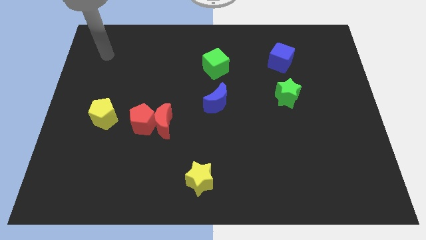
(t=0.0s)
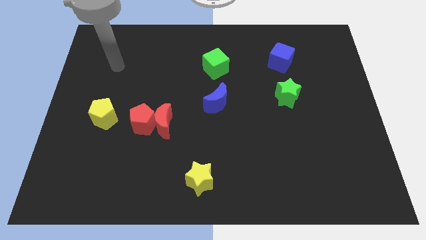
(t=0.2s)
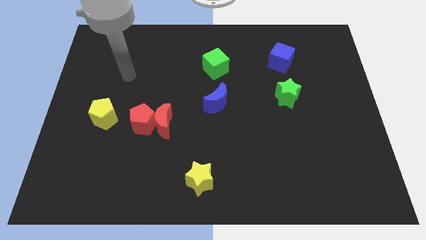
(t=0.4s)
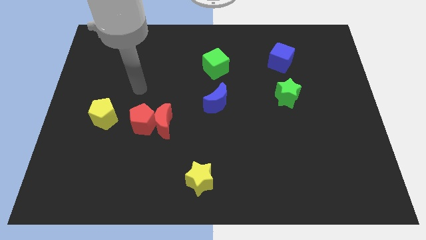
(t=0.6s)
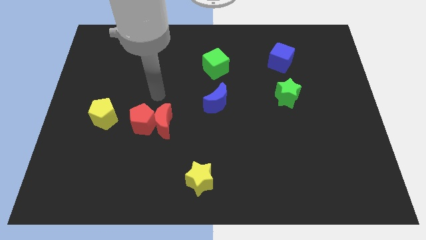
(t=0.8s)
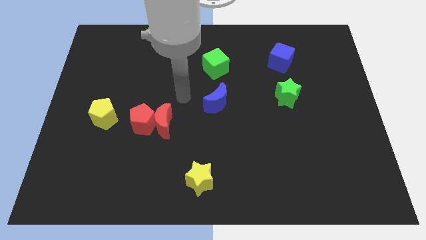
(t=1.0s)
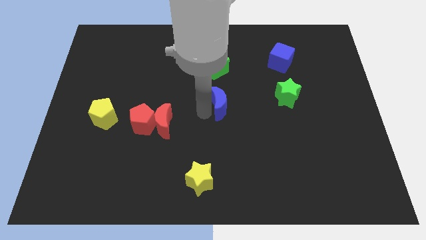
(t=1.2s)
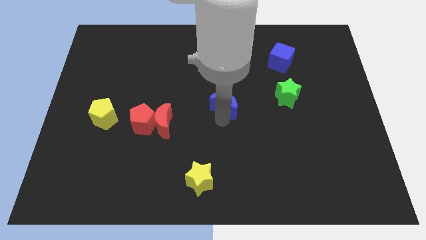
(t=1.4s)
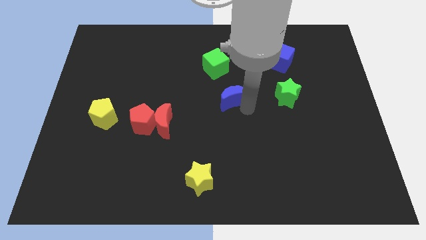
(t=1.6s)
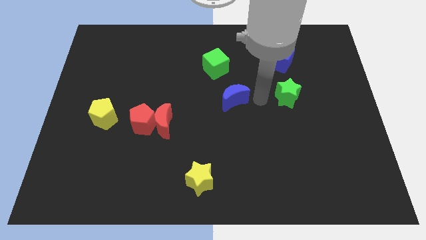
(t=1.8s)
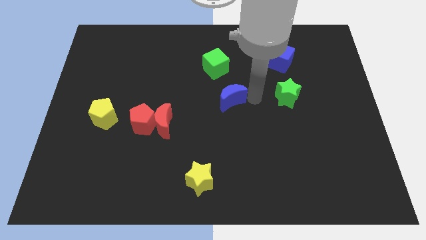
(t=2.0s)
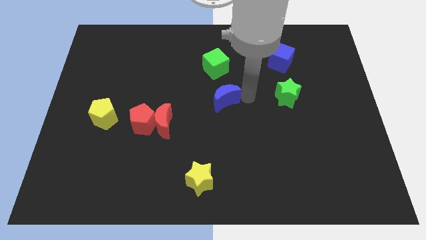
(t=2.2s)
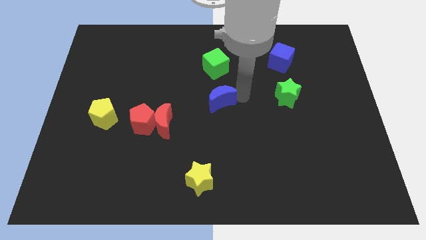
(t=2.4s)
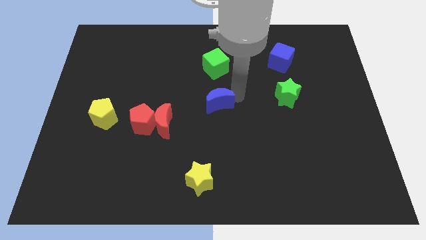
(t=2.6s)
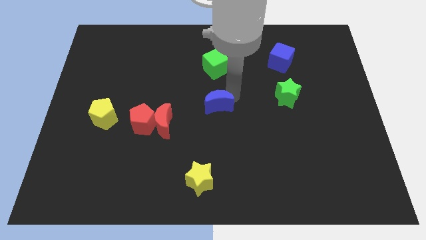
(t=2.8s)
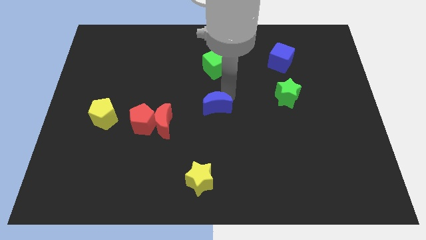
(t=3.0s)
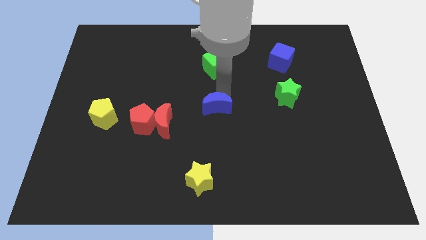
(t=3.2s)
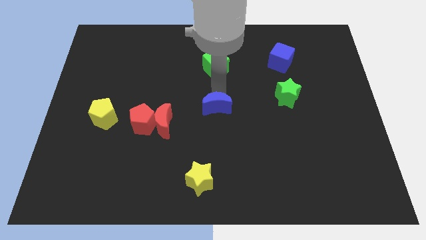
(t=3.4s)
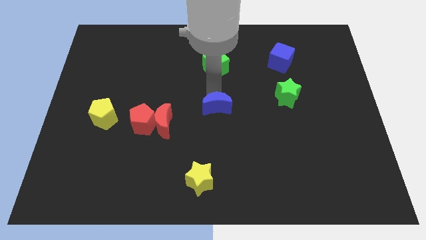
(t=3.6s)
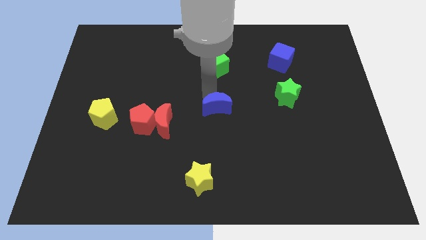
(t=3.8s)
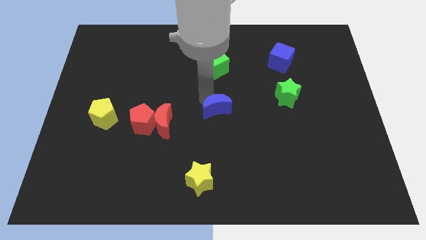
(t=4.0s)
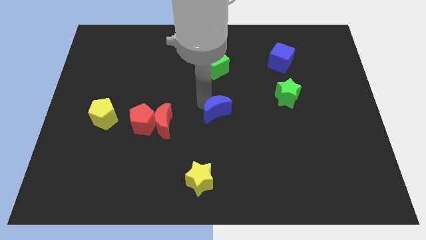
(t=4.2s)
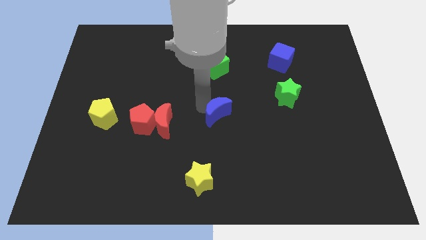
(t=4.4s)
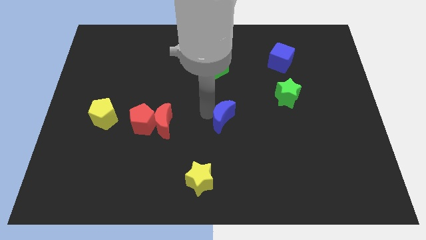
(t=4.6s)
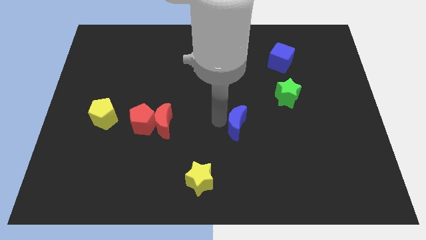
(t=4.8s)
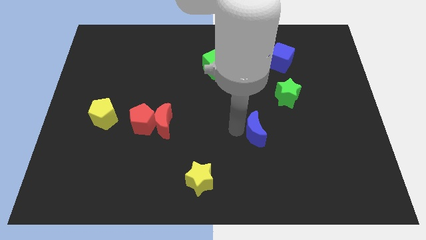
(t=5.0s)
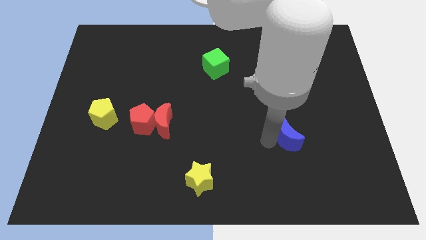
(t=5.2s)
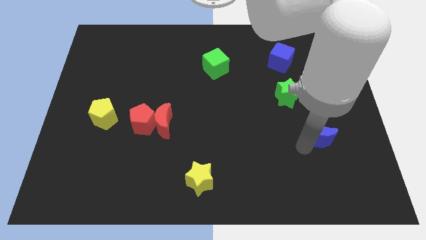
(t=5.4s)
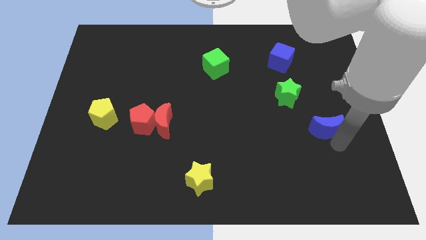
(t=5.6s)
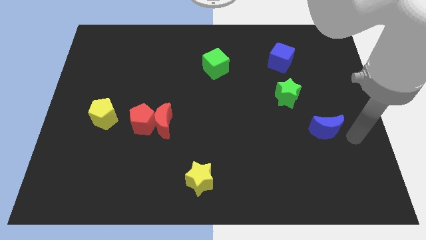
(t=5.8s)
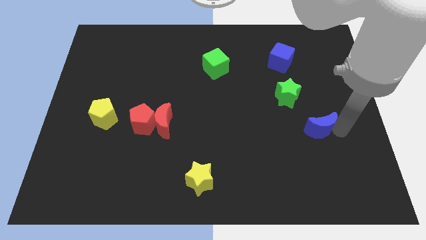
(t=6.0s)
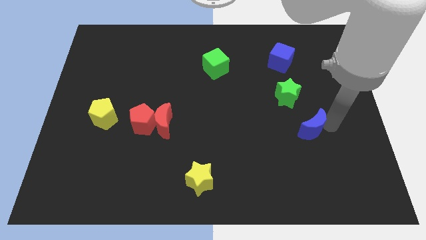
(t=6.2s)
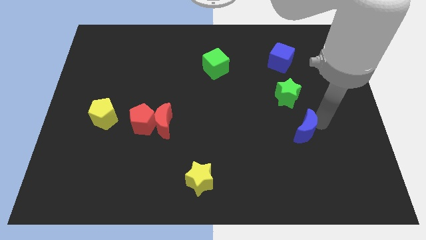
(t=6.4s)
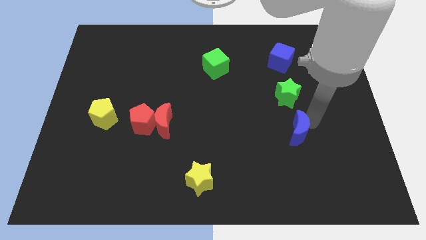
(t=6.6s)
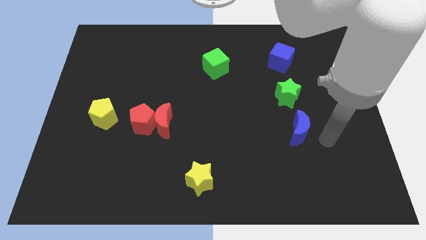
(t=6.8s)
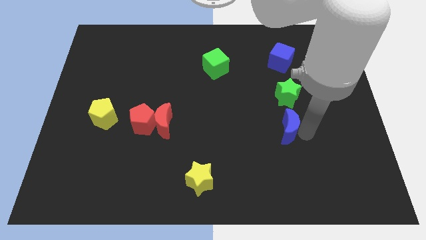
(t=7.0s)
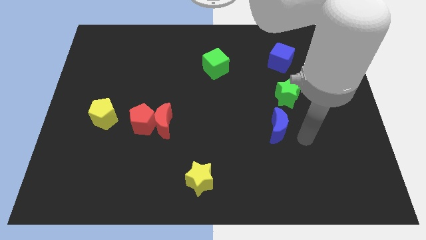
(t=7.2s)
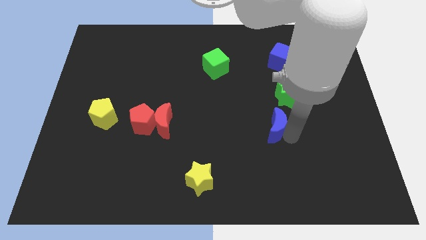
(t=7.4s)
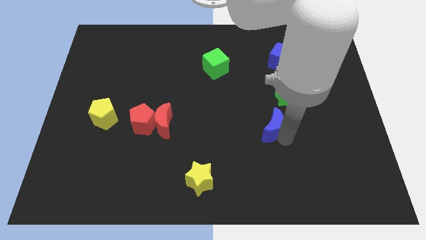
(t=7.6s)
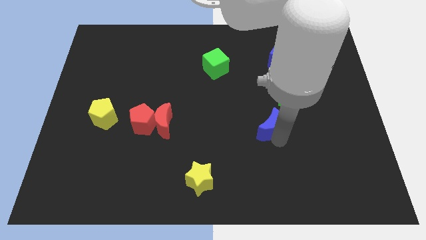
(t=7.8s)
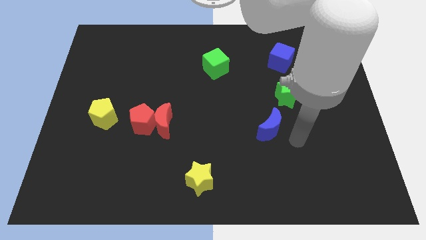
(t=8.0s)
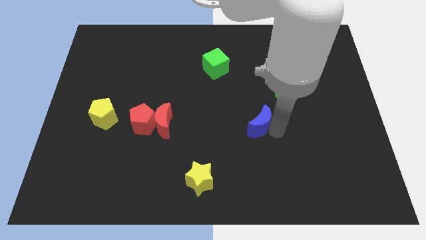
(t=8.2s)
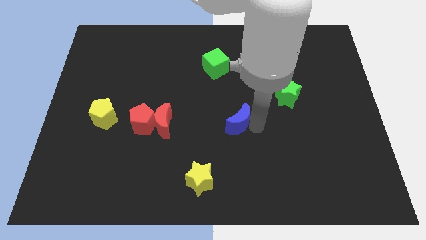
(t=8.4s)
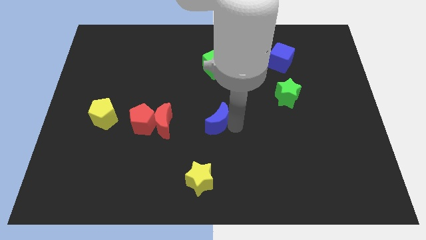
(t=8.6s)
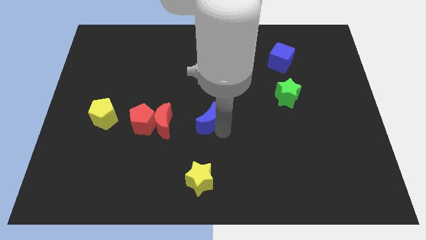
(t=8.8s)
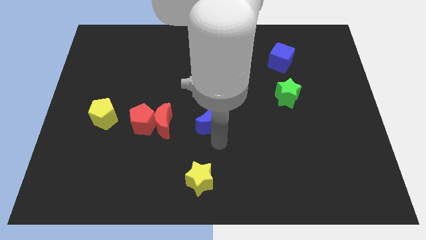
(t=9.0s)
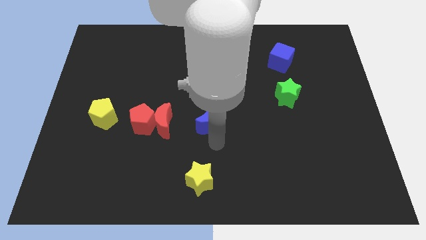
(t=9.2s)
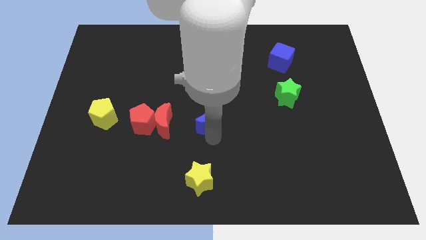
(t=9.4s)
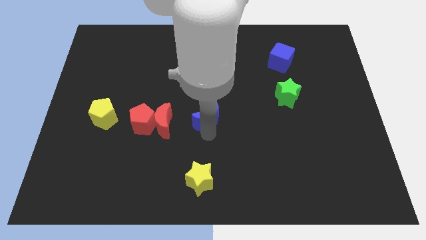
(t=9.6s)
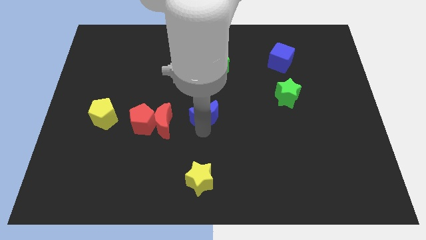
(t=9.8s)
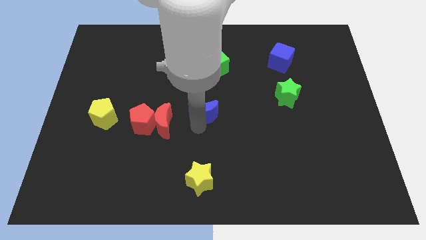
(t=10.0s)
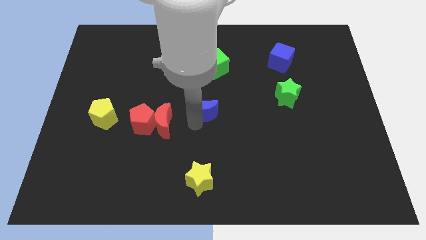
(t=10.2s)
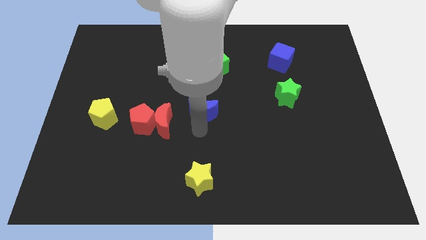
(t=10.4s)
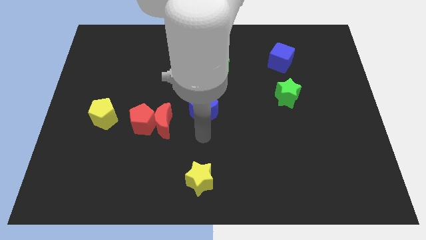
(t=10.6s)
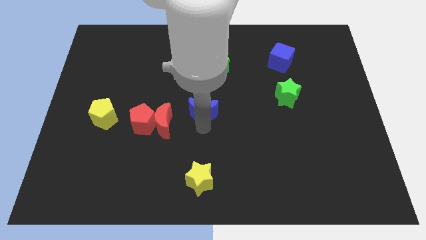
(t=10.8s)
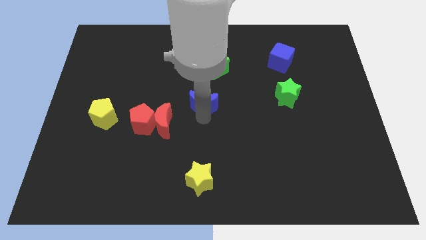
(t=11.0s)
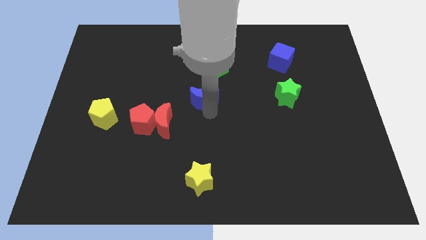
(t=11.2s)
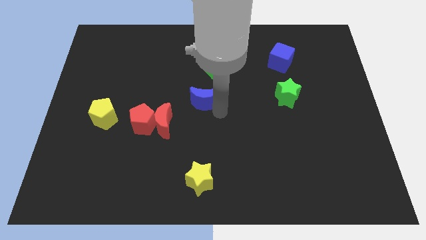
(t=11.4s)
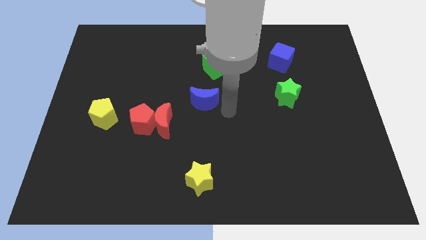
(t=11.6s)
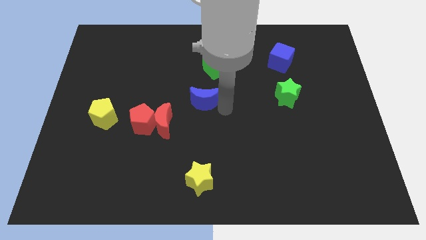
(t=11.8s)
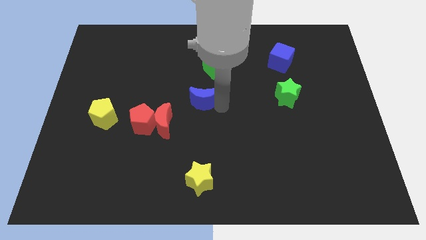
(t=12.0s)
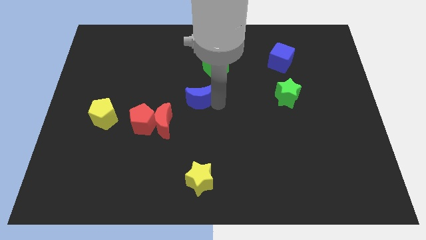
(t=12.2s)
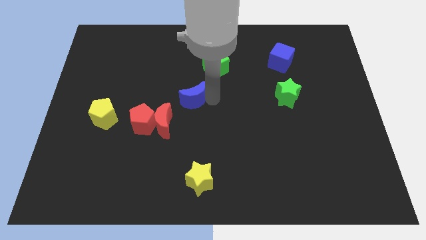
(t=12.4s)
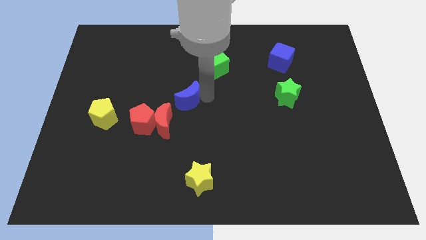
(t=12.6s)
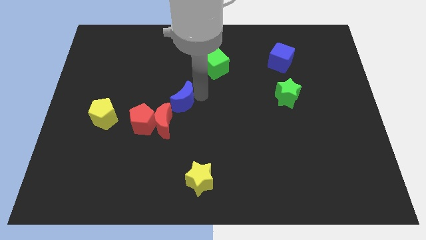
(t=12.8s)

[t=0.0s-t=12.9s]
slide the blue moon to the top side of the red moon
